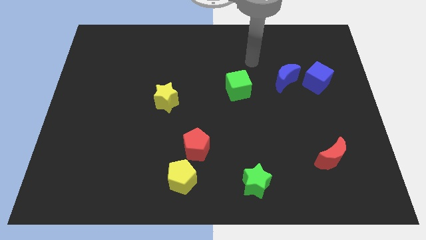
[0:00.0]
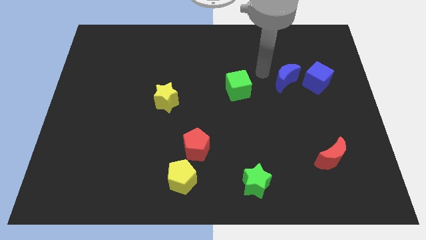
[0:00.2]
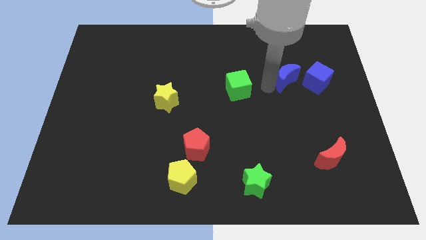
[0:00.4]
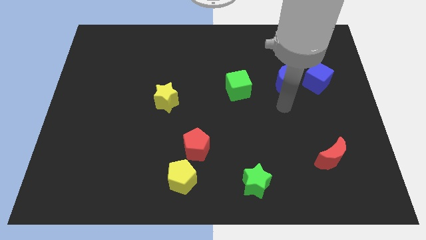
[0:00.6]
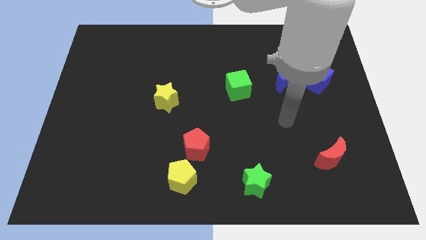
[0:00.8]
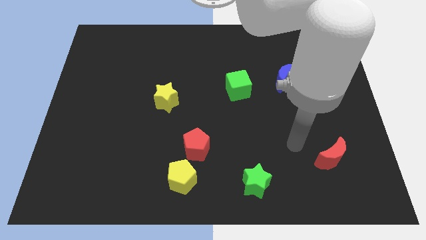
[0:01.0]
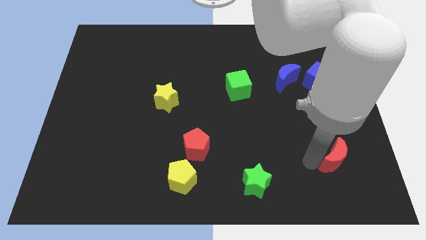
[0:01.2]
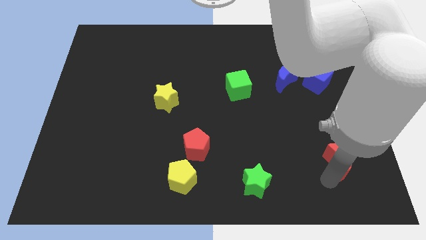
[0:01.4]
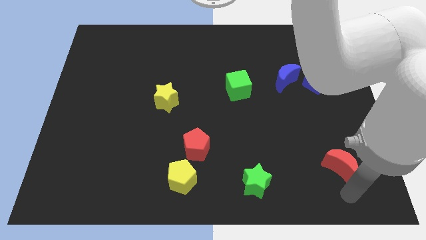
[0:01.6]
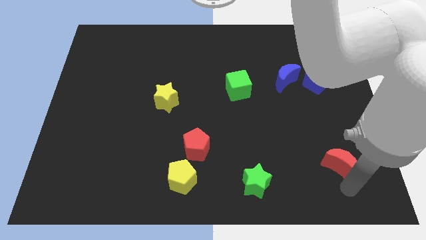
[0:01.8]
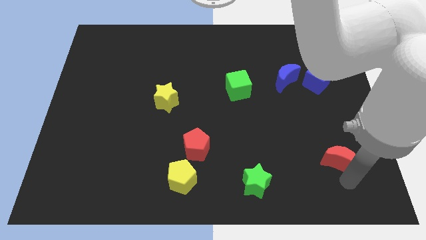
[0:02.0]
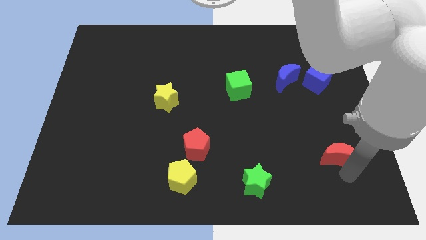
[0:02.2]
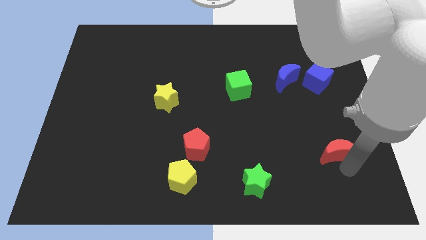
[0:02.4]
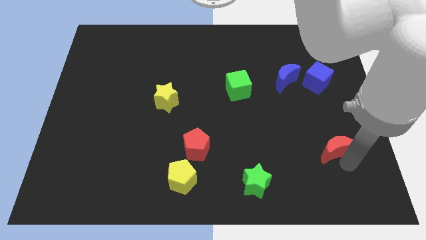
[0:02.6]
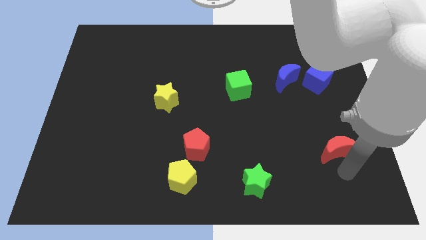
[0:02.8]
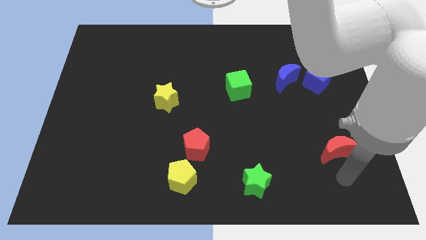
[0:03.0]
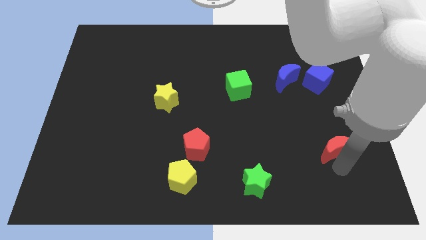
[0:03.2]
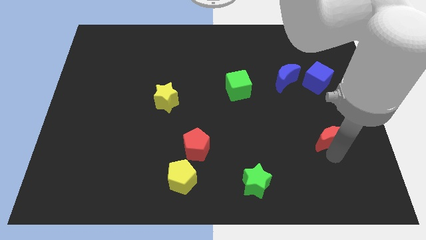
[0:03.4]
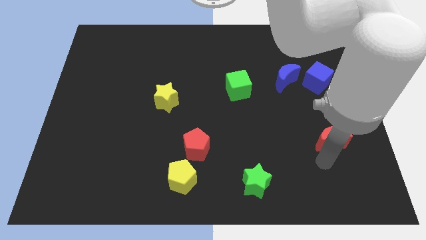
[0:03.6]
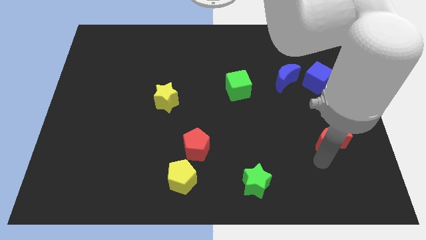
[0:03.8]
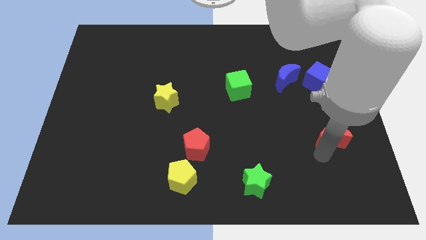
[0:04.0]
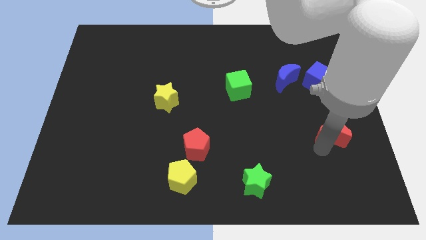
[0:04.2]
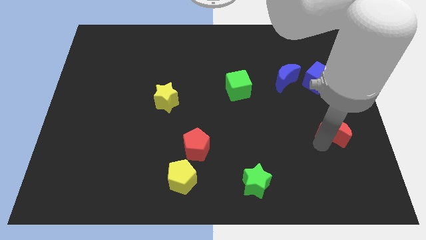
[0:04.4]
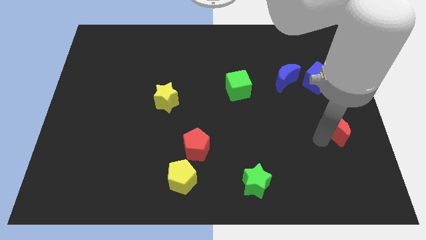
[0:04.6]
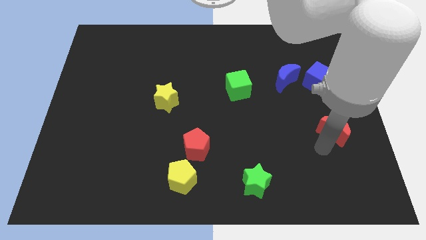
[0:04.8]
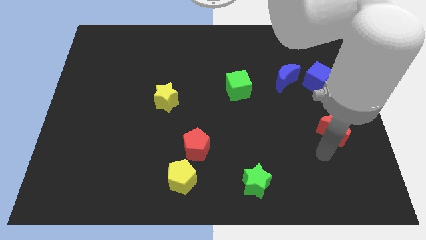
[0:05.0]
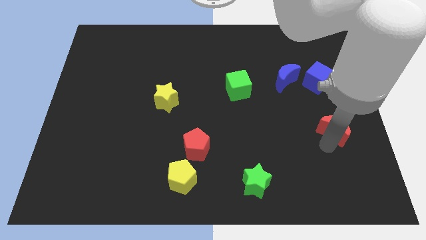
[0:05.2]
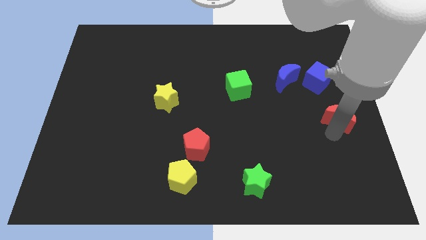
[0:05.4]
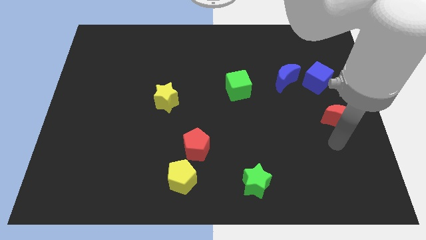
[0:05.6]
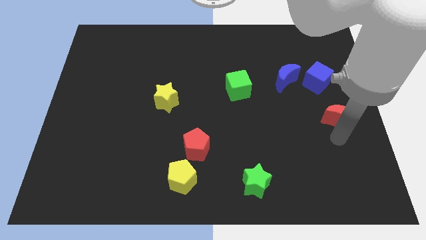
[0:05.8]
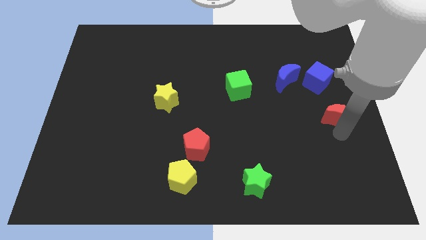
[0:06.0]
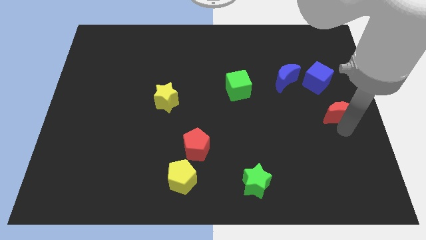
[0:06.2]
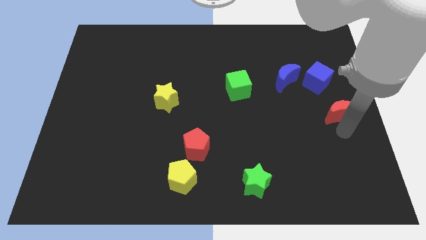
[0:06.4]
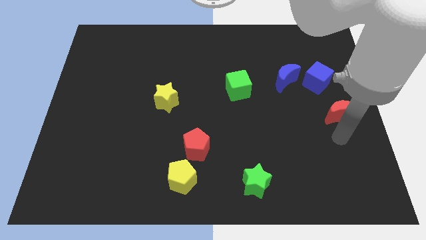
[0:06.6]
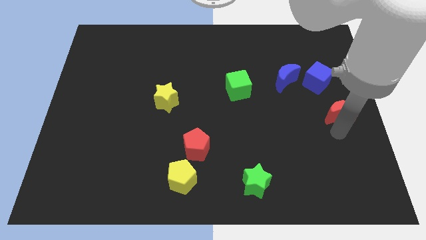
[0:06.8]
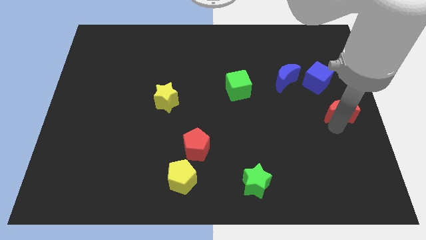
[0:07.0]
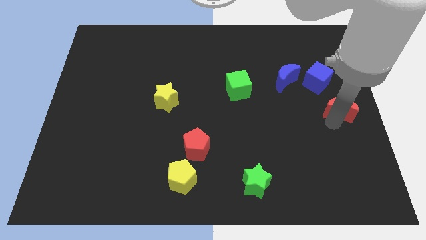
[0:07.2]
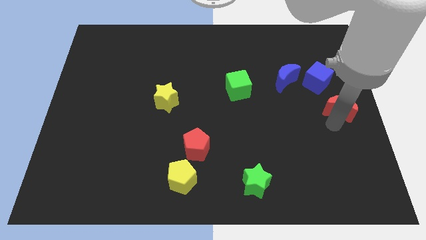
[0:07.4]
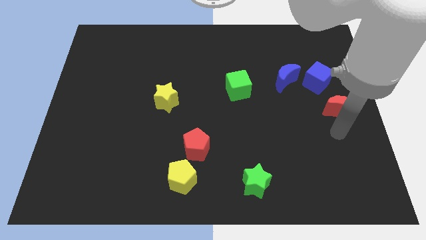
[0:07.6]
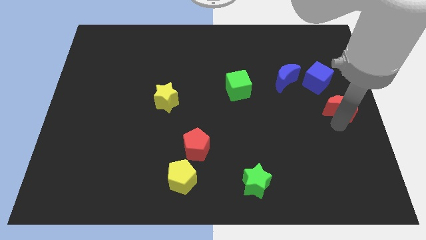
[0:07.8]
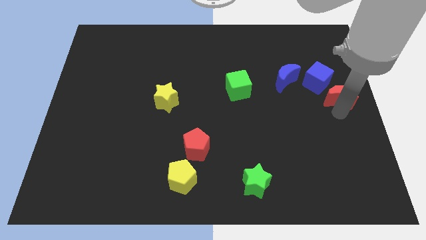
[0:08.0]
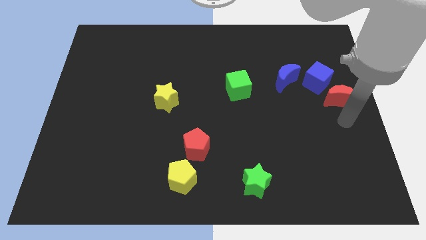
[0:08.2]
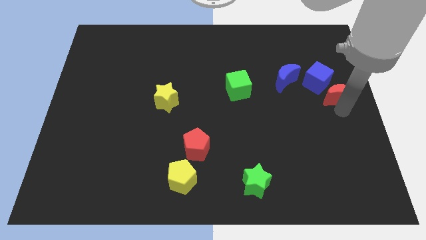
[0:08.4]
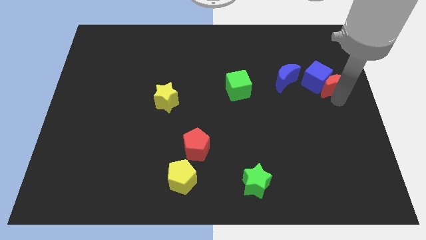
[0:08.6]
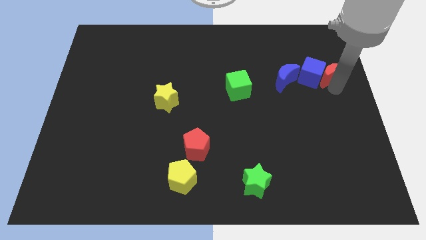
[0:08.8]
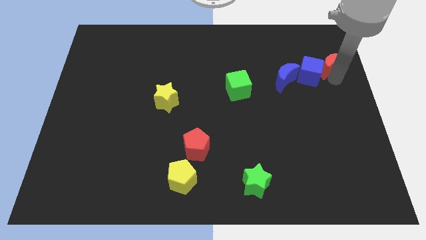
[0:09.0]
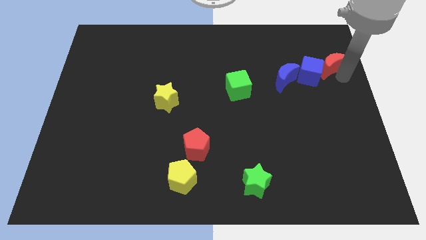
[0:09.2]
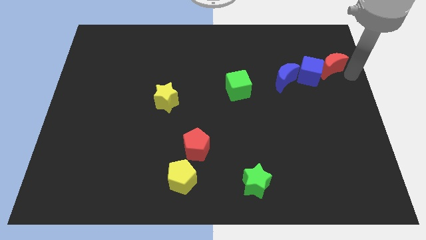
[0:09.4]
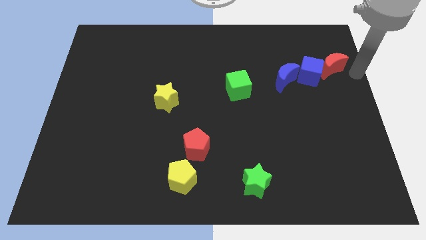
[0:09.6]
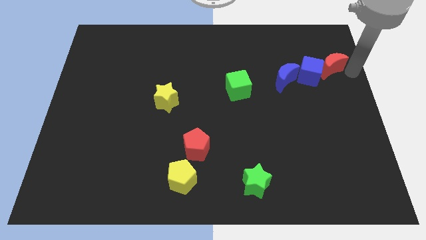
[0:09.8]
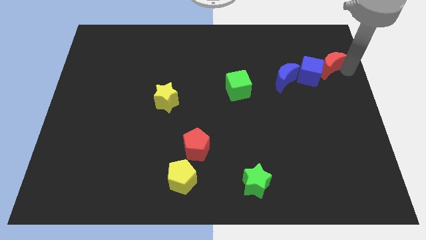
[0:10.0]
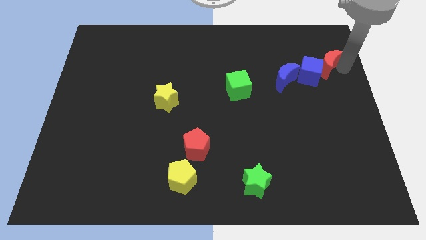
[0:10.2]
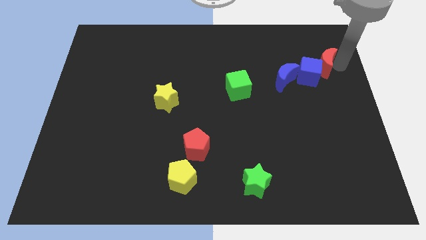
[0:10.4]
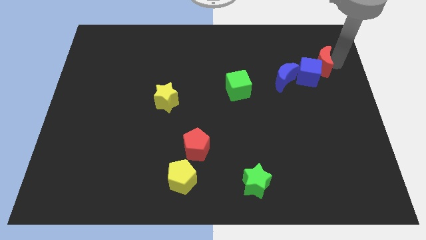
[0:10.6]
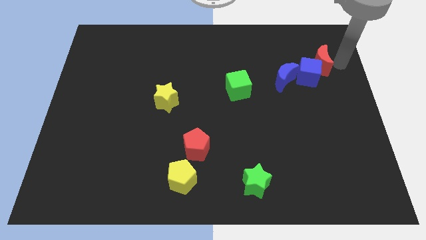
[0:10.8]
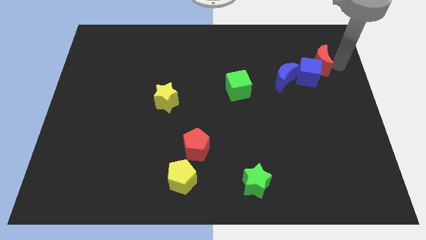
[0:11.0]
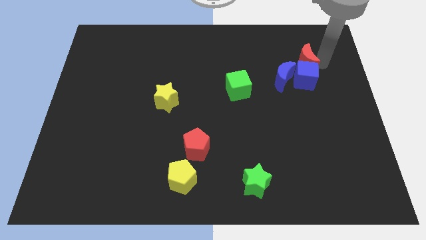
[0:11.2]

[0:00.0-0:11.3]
move the red moon diagonally up and to the left of the blue cube

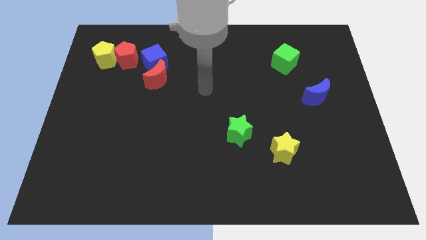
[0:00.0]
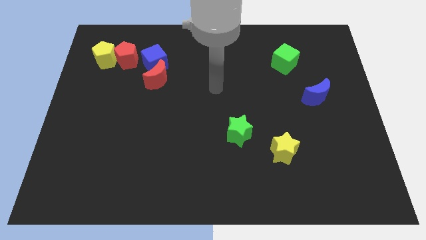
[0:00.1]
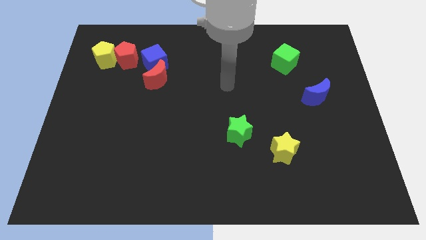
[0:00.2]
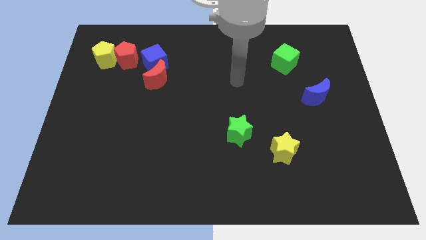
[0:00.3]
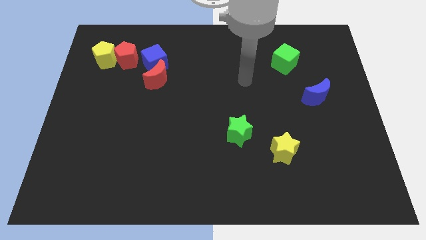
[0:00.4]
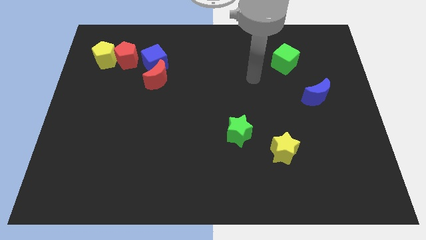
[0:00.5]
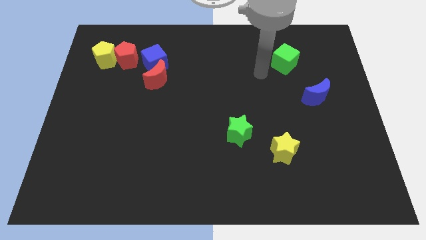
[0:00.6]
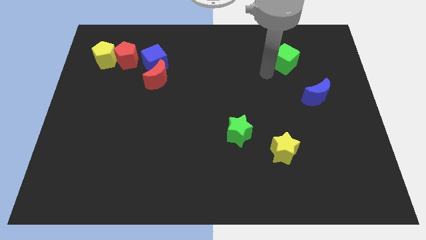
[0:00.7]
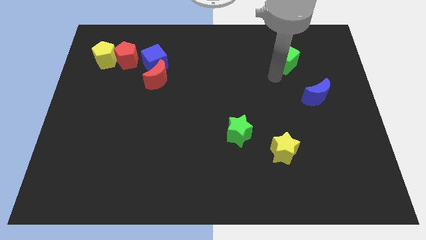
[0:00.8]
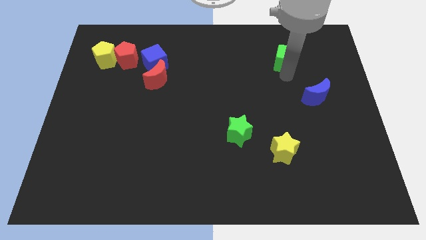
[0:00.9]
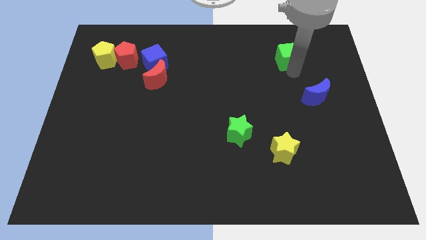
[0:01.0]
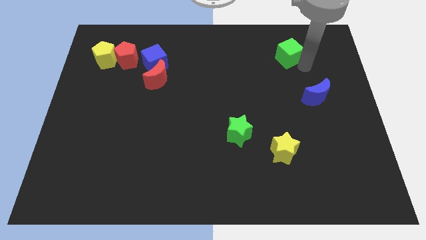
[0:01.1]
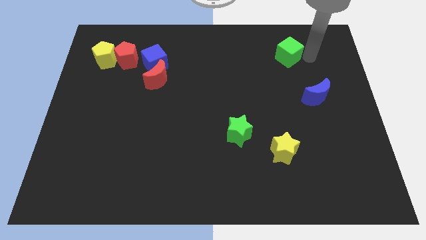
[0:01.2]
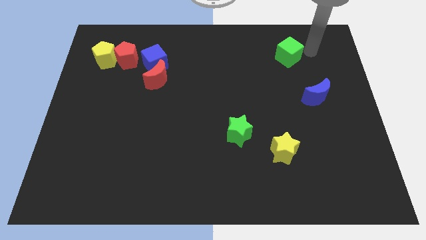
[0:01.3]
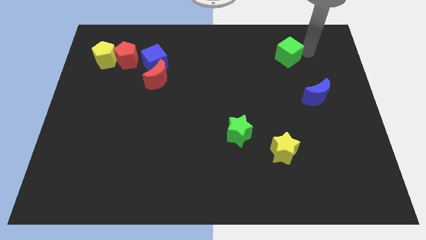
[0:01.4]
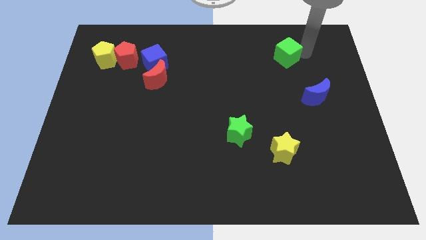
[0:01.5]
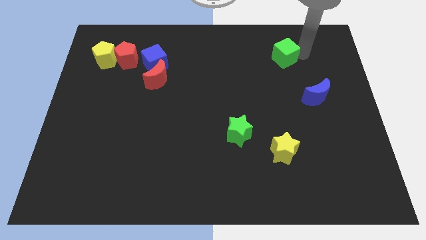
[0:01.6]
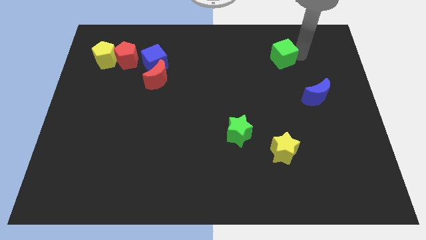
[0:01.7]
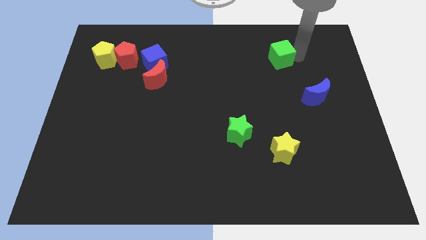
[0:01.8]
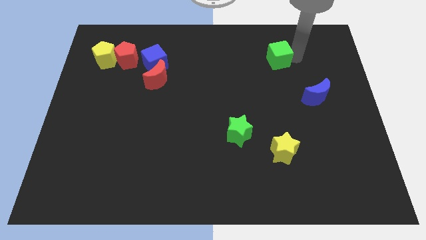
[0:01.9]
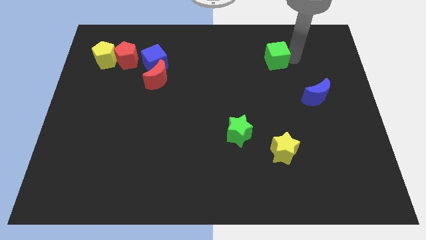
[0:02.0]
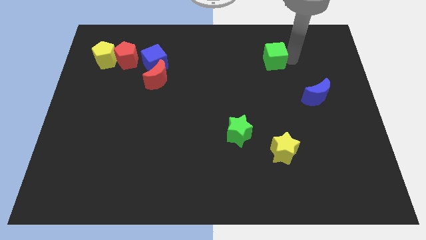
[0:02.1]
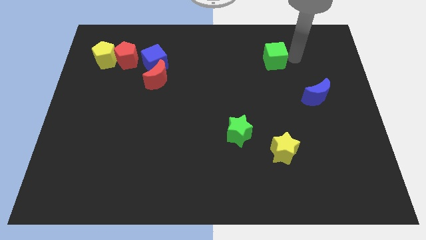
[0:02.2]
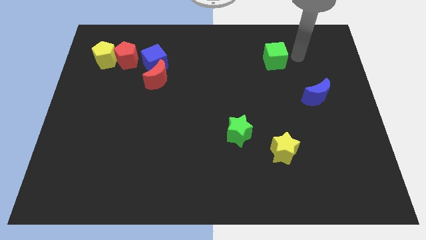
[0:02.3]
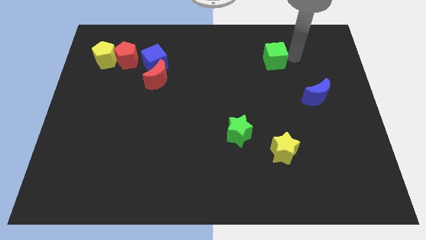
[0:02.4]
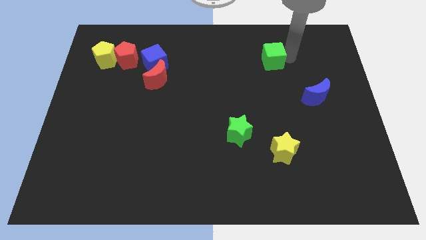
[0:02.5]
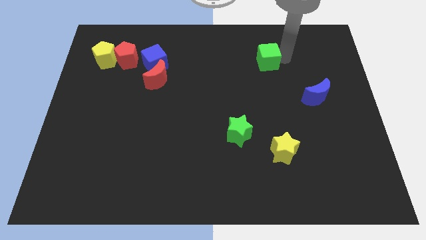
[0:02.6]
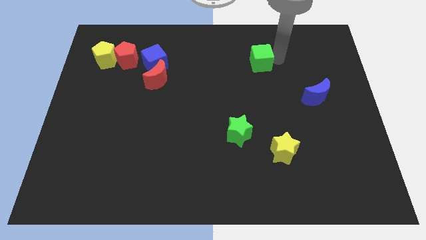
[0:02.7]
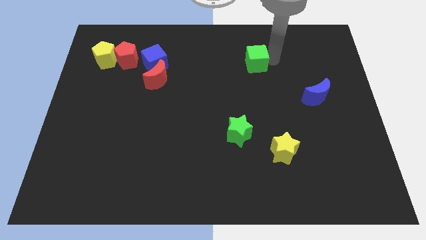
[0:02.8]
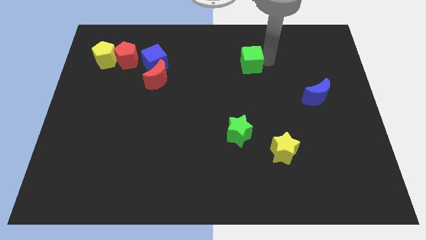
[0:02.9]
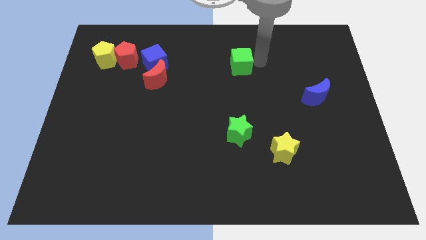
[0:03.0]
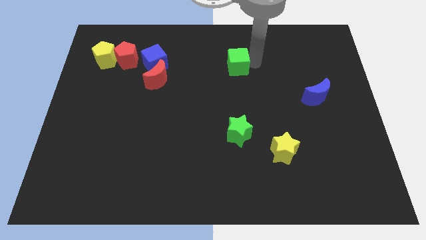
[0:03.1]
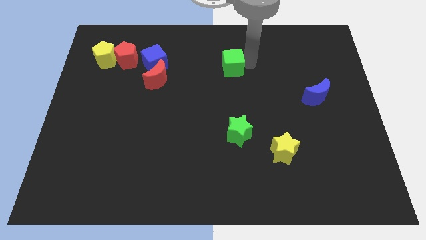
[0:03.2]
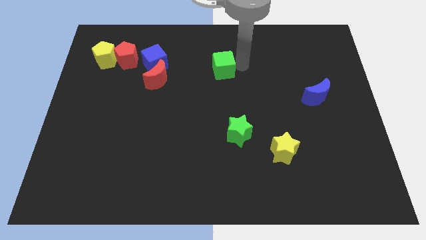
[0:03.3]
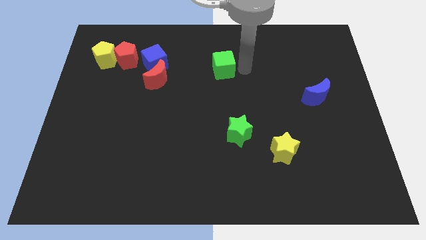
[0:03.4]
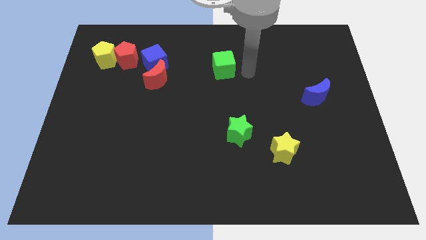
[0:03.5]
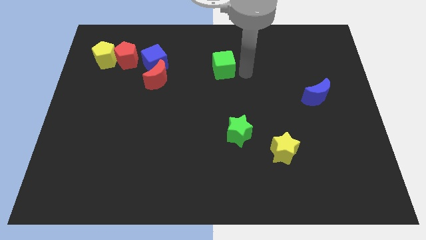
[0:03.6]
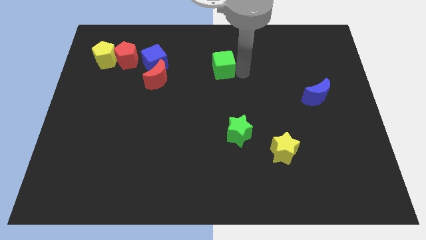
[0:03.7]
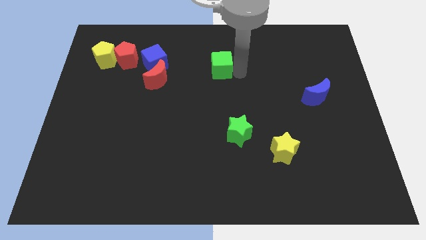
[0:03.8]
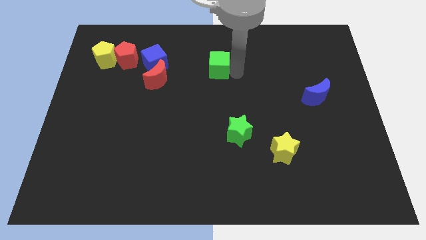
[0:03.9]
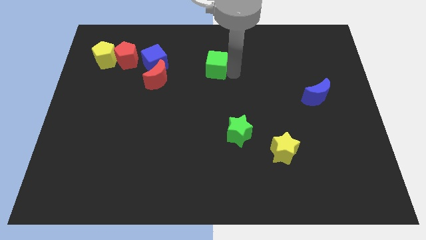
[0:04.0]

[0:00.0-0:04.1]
push the green cube to the right side of the blue cube
